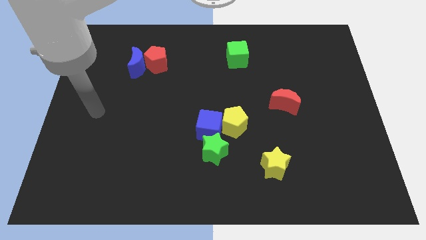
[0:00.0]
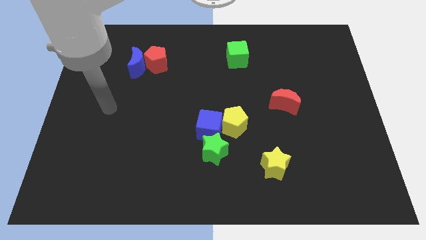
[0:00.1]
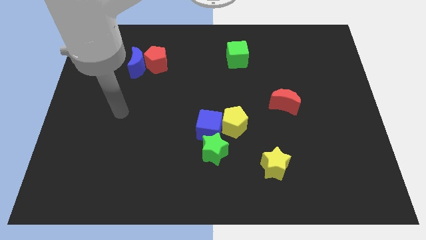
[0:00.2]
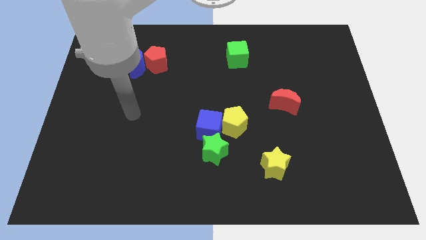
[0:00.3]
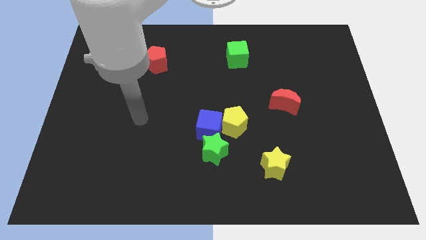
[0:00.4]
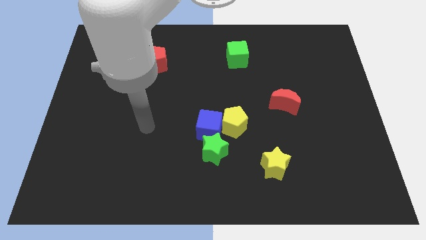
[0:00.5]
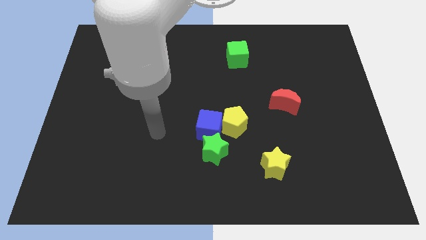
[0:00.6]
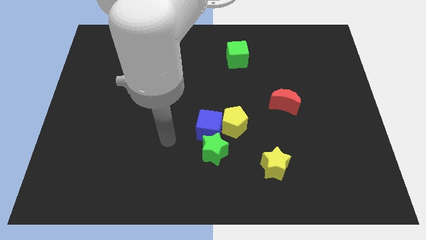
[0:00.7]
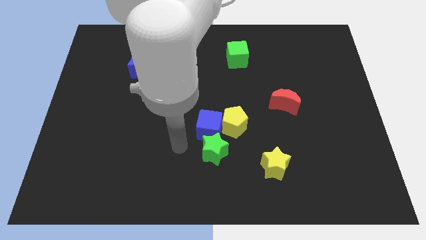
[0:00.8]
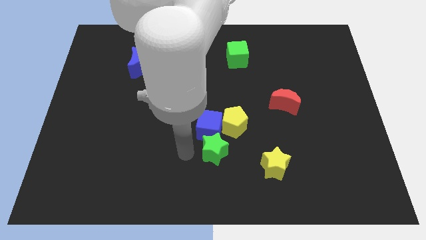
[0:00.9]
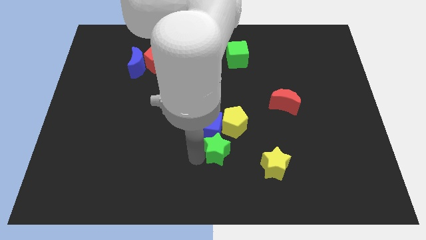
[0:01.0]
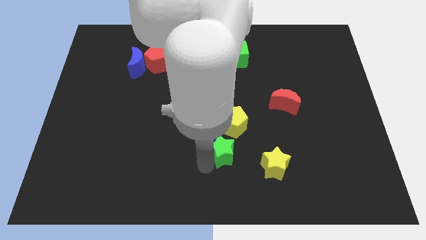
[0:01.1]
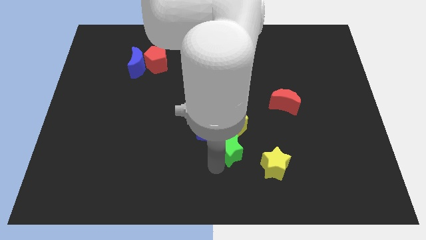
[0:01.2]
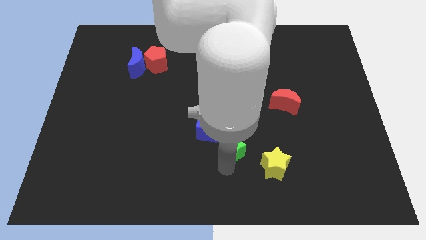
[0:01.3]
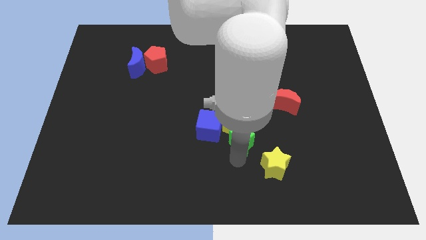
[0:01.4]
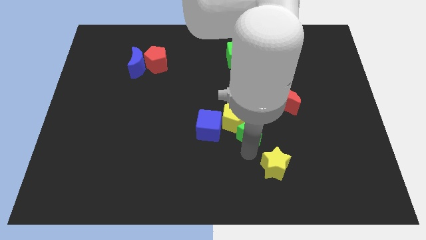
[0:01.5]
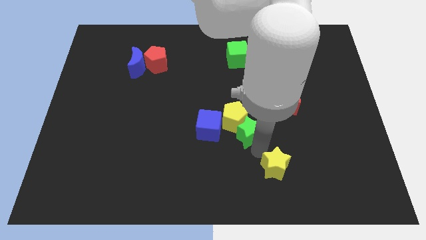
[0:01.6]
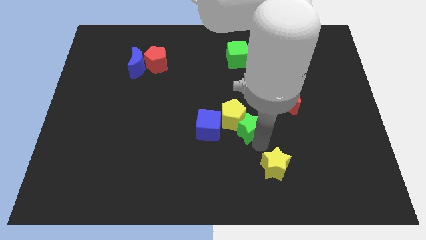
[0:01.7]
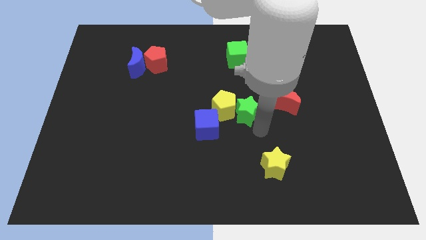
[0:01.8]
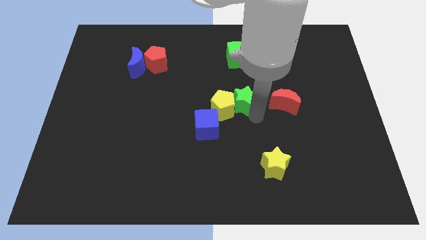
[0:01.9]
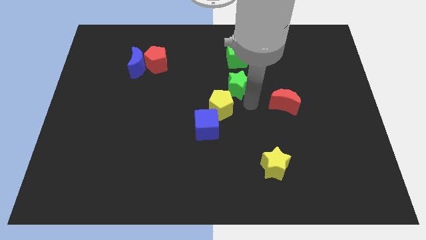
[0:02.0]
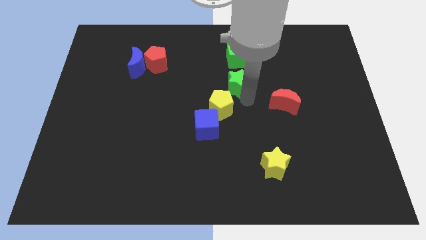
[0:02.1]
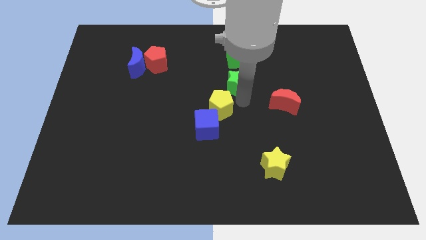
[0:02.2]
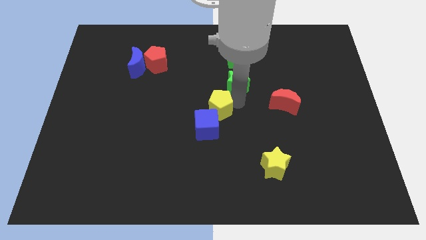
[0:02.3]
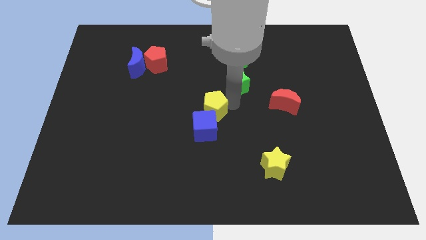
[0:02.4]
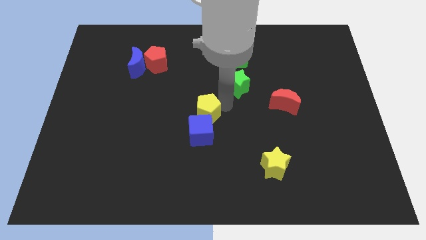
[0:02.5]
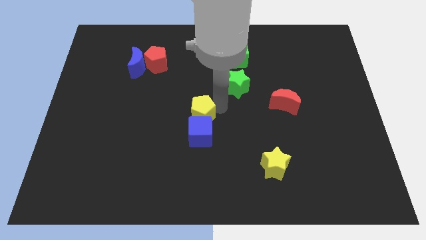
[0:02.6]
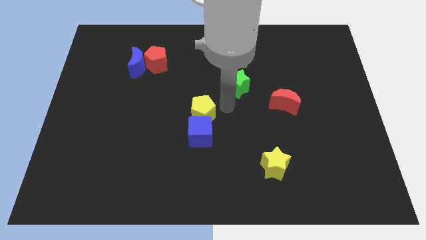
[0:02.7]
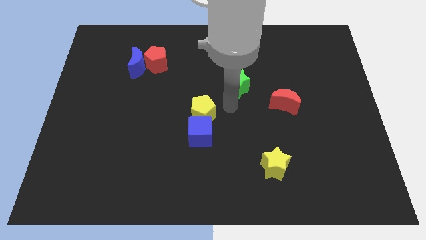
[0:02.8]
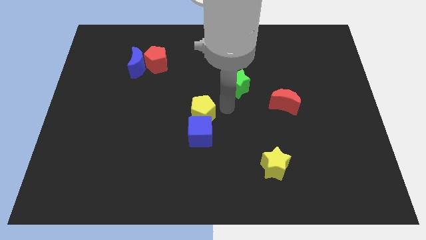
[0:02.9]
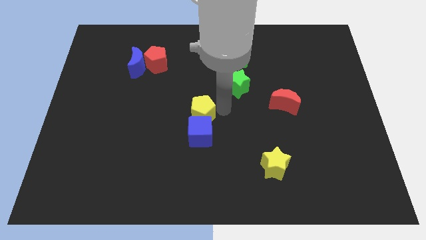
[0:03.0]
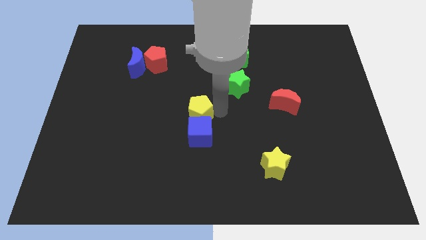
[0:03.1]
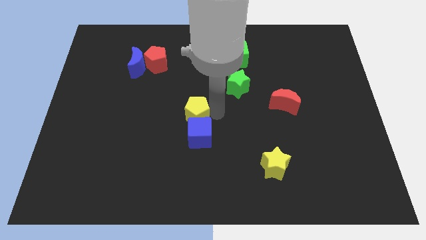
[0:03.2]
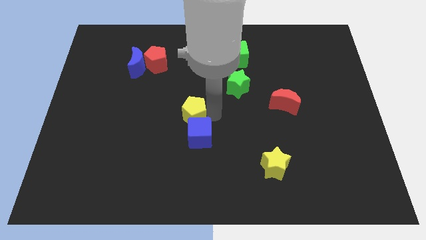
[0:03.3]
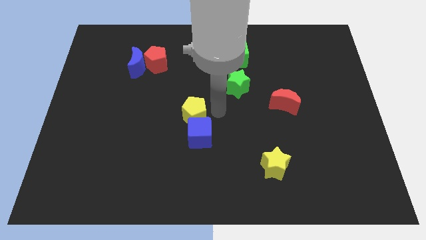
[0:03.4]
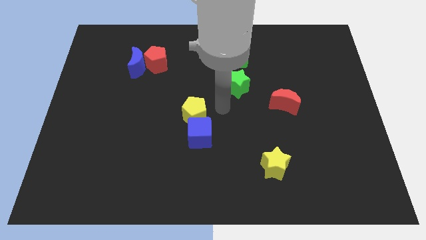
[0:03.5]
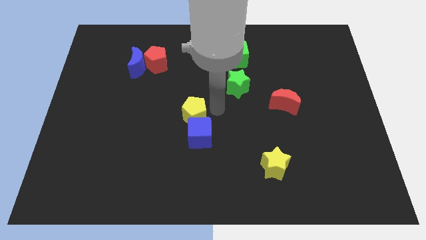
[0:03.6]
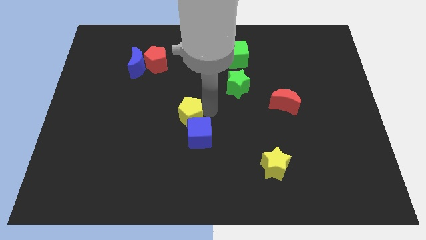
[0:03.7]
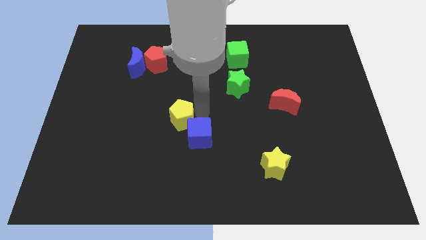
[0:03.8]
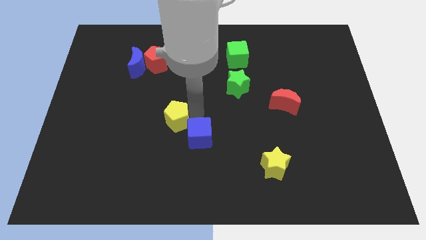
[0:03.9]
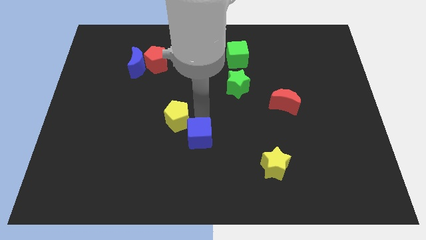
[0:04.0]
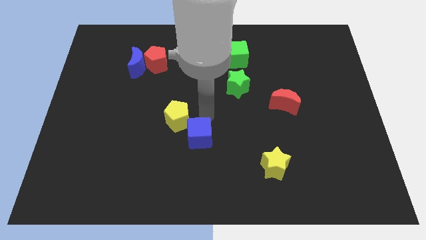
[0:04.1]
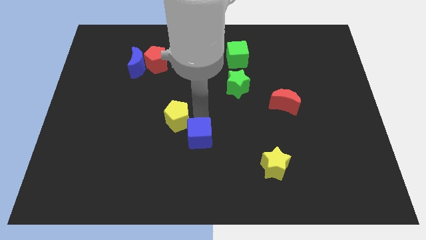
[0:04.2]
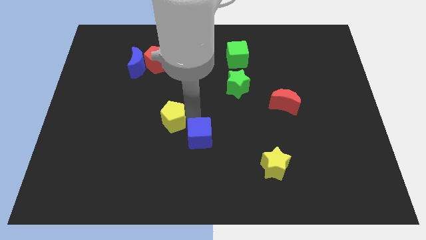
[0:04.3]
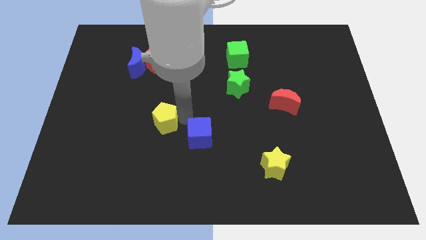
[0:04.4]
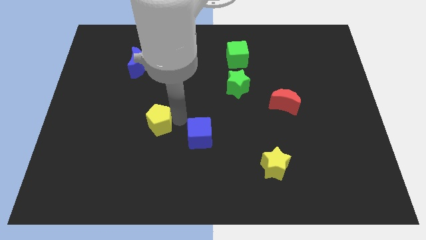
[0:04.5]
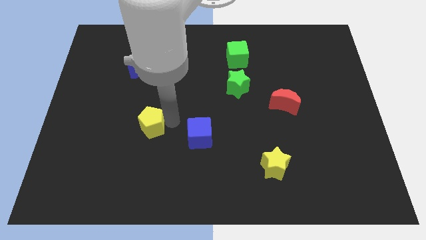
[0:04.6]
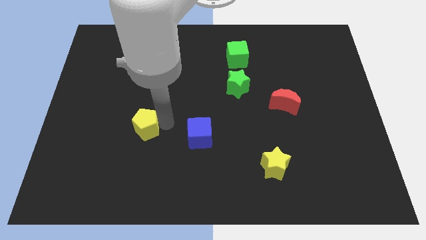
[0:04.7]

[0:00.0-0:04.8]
move the yellow pentagon to the left

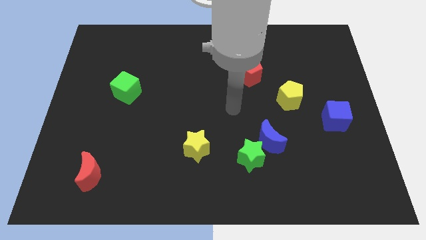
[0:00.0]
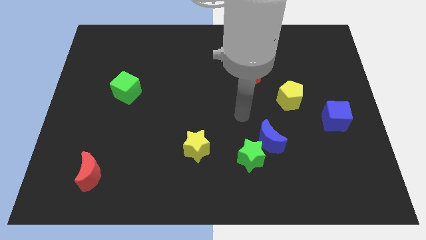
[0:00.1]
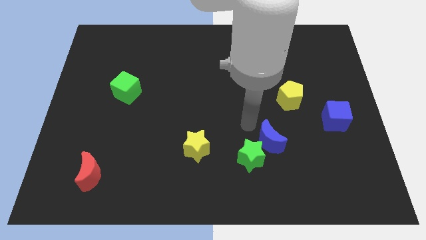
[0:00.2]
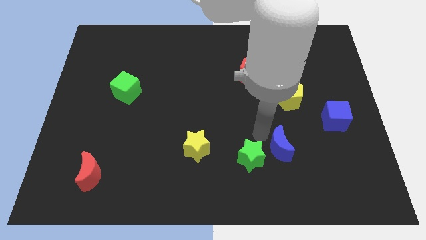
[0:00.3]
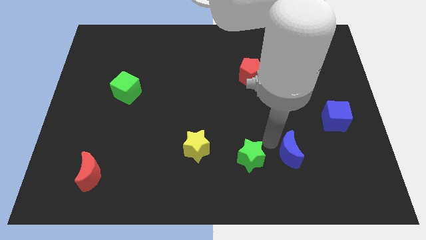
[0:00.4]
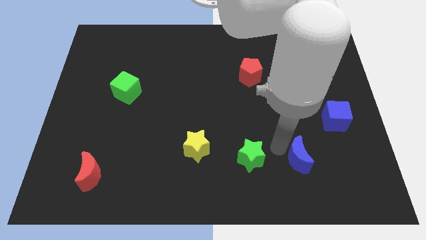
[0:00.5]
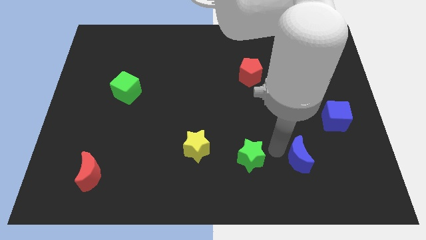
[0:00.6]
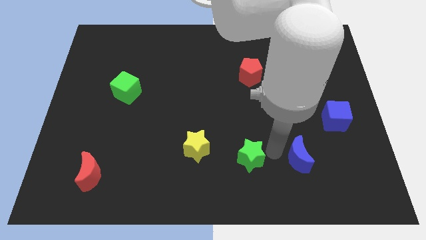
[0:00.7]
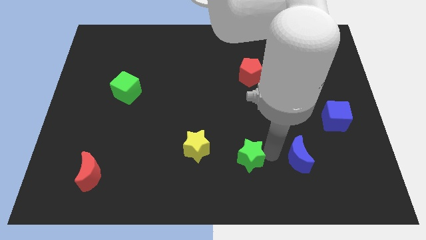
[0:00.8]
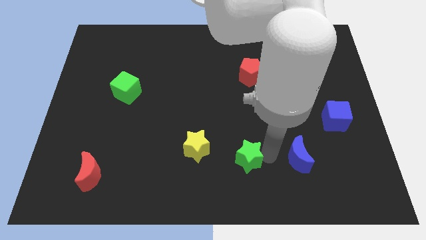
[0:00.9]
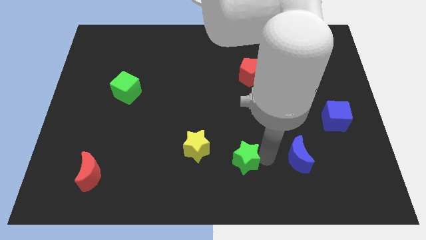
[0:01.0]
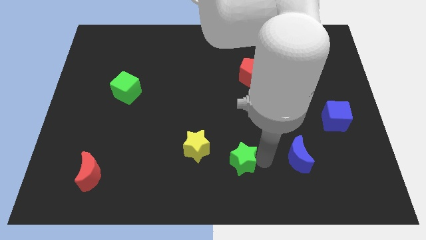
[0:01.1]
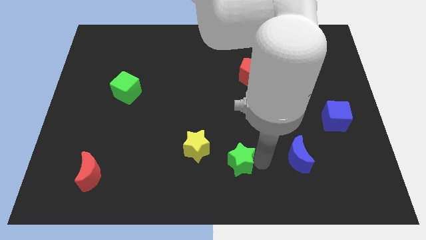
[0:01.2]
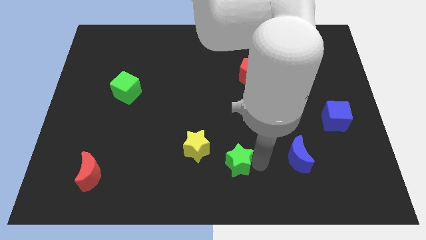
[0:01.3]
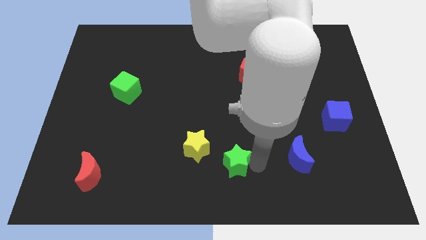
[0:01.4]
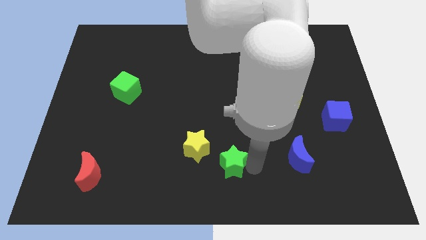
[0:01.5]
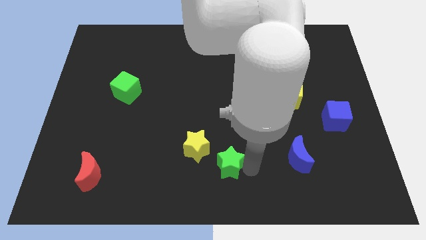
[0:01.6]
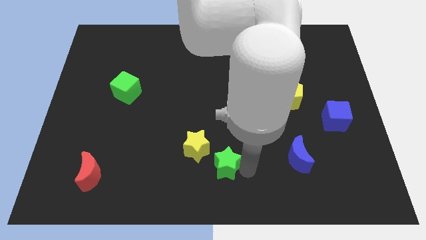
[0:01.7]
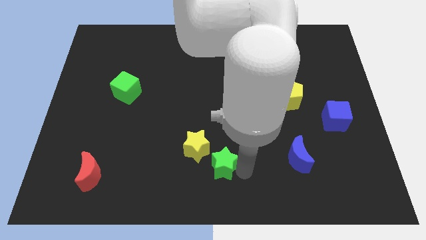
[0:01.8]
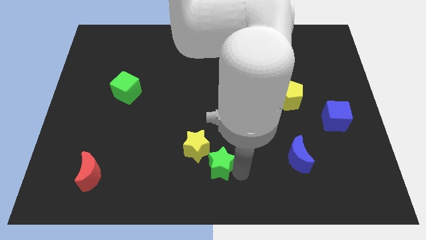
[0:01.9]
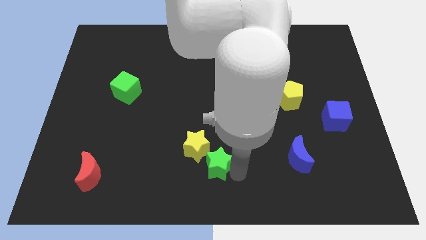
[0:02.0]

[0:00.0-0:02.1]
push the green star a little bit to the left

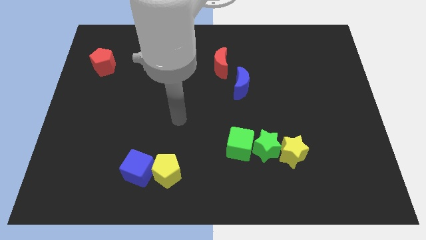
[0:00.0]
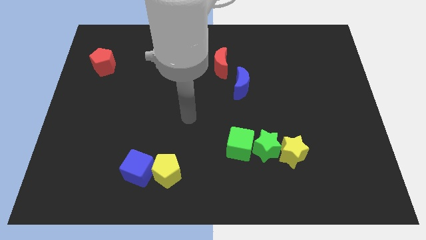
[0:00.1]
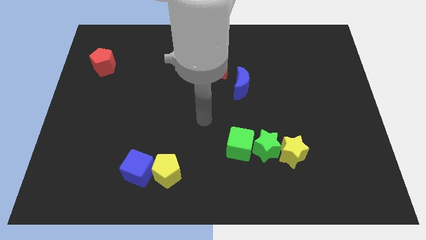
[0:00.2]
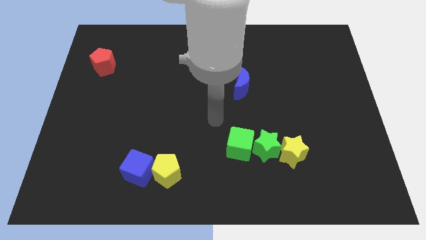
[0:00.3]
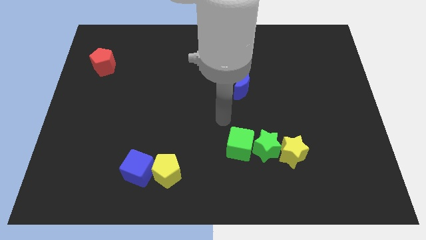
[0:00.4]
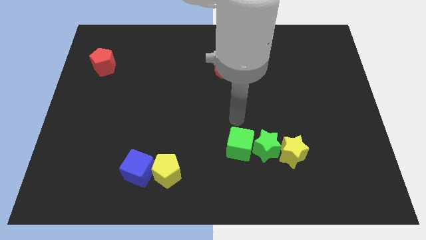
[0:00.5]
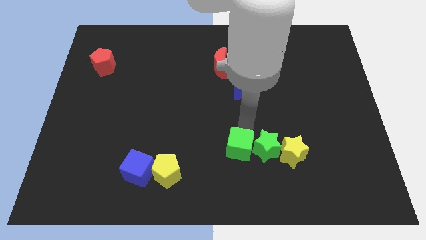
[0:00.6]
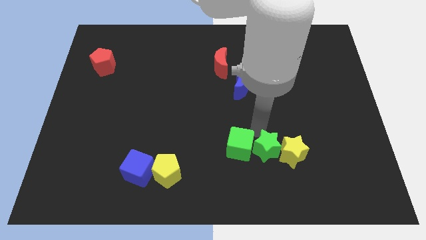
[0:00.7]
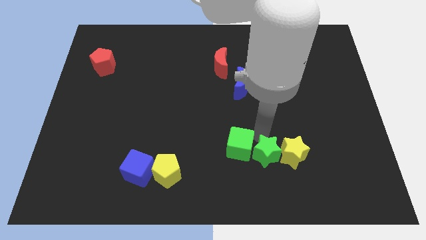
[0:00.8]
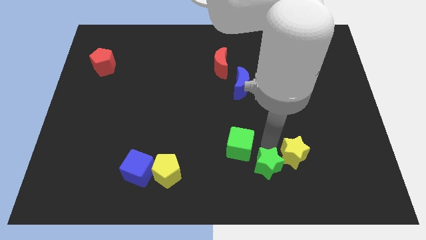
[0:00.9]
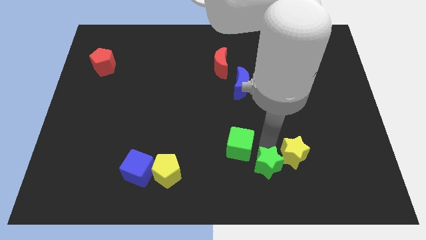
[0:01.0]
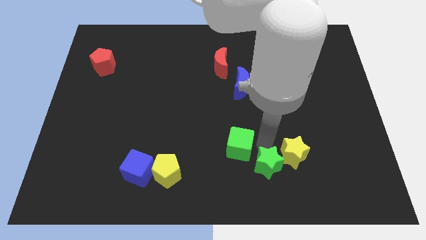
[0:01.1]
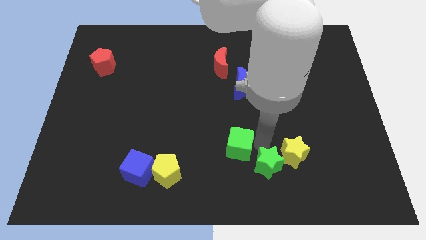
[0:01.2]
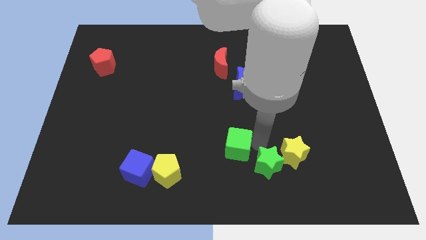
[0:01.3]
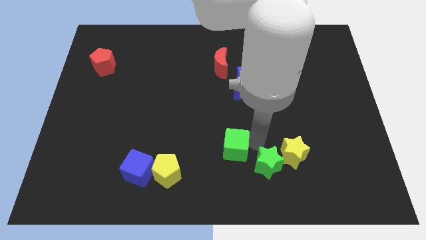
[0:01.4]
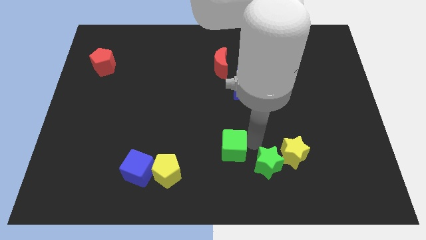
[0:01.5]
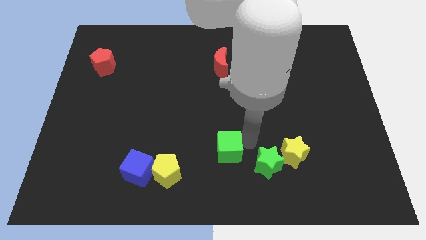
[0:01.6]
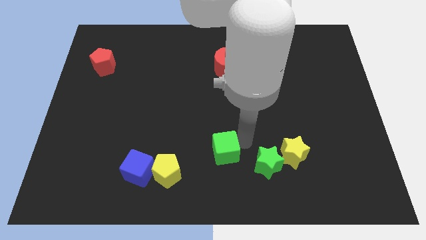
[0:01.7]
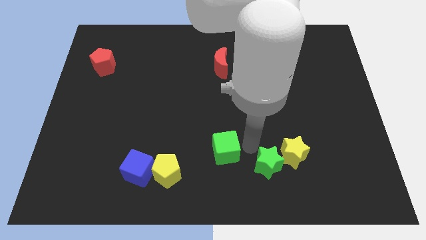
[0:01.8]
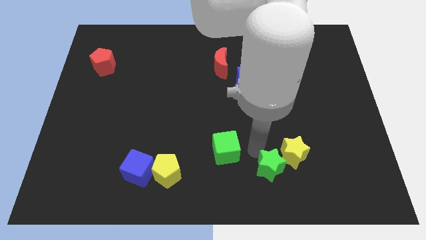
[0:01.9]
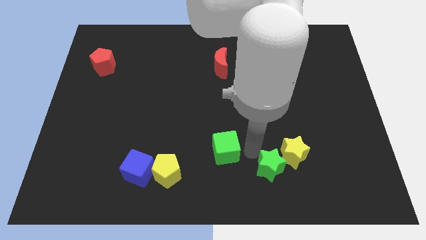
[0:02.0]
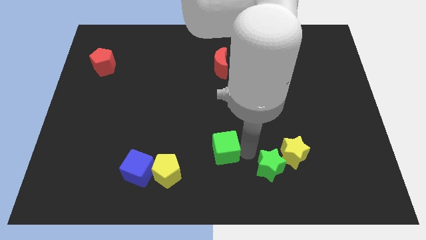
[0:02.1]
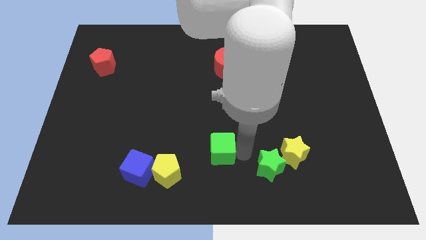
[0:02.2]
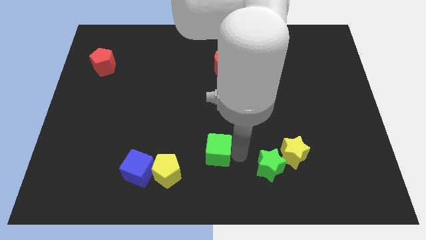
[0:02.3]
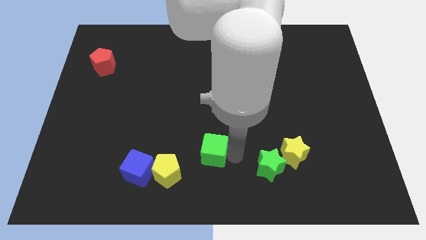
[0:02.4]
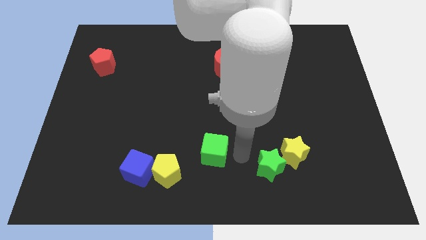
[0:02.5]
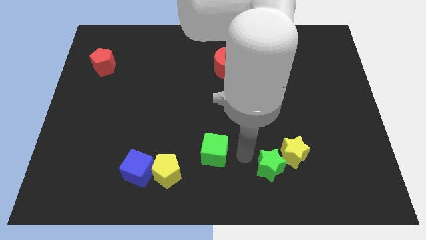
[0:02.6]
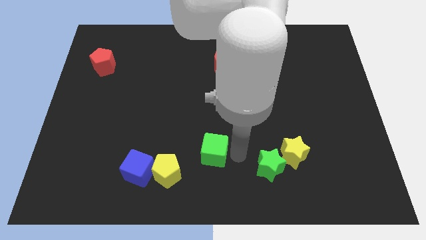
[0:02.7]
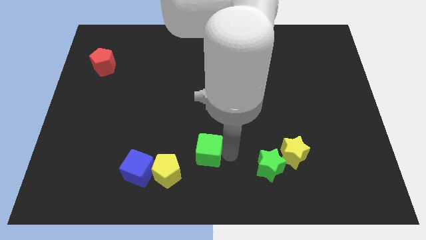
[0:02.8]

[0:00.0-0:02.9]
slide the green cube left slightly
